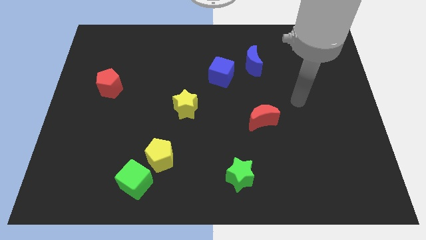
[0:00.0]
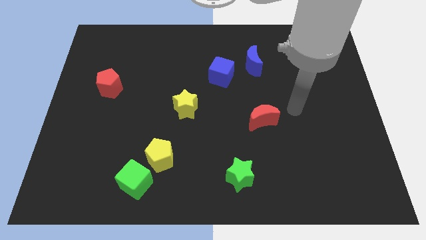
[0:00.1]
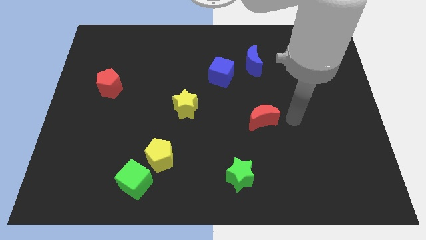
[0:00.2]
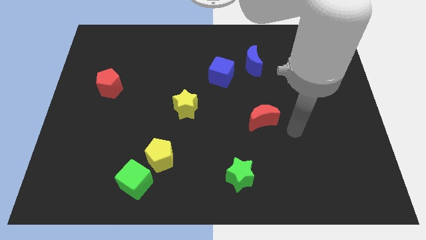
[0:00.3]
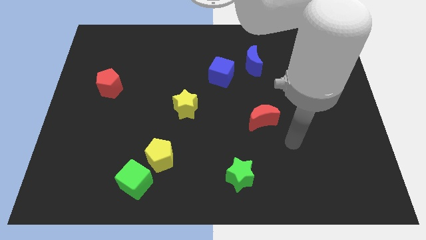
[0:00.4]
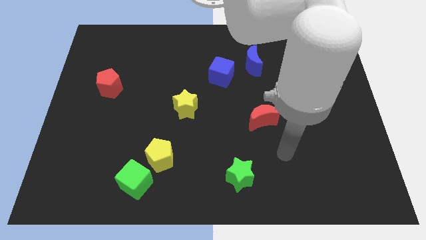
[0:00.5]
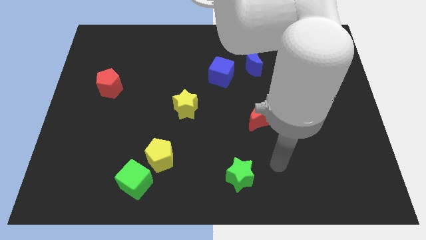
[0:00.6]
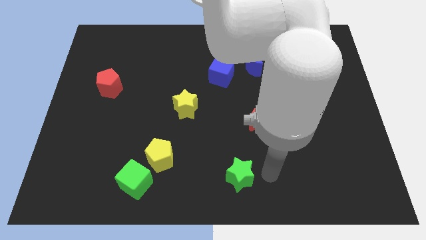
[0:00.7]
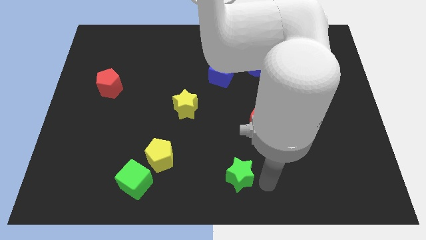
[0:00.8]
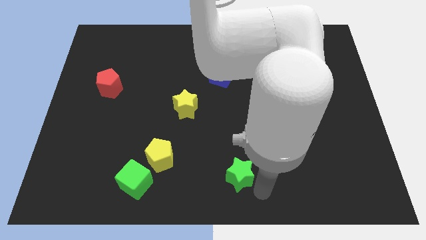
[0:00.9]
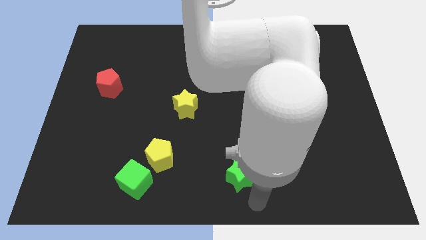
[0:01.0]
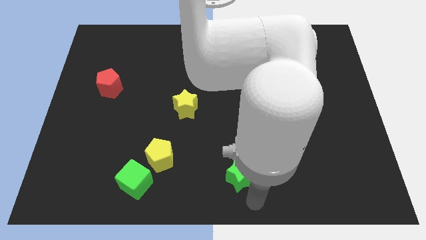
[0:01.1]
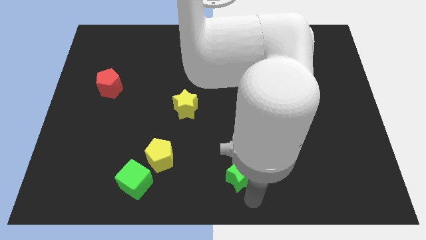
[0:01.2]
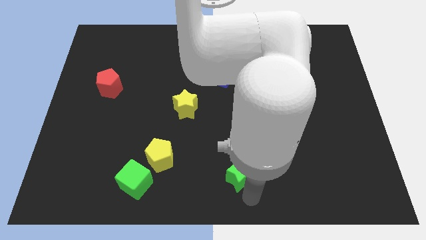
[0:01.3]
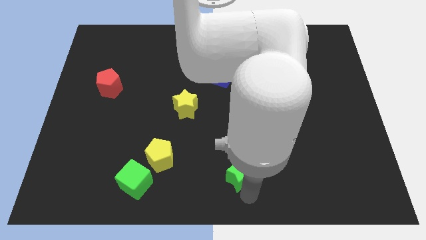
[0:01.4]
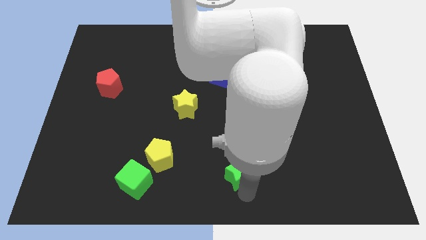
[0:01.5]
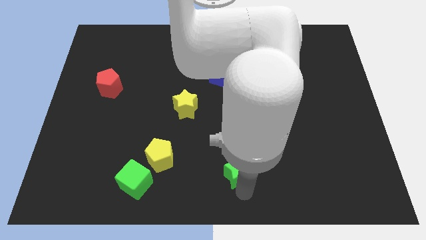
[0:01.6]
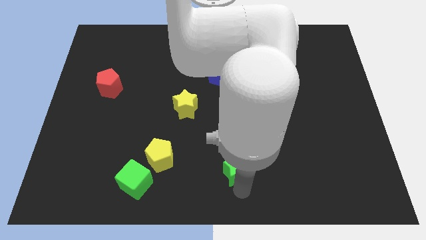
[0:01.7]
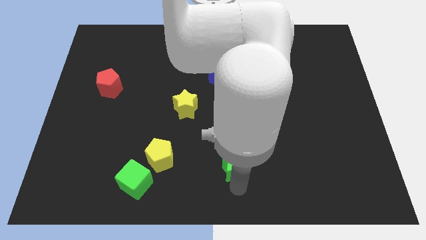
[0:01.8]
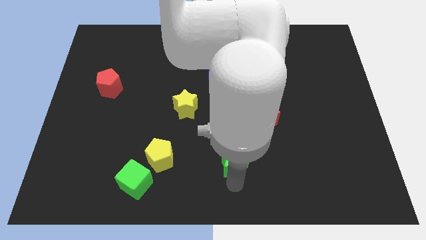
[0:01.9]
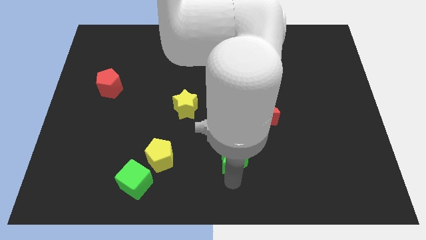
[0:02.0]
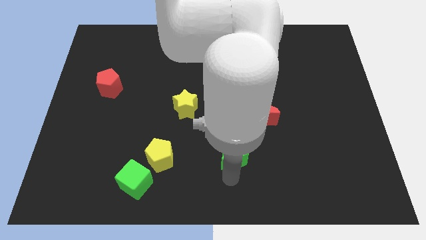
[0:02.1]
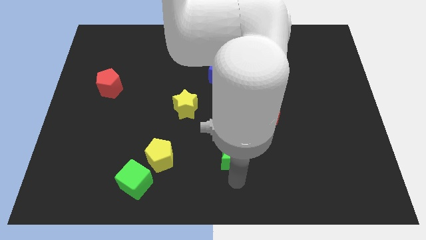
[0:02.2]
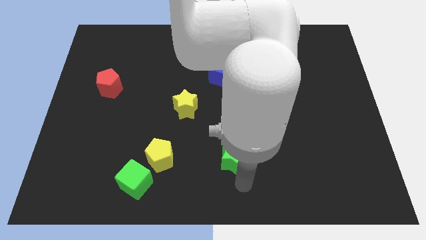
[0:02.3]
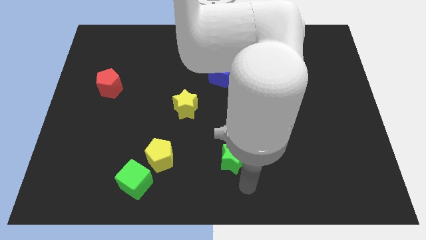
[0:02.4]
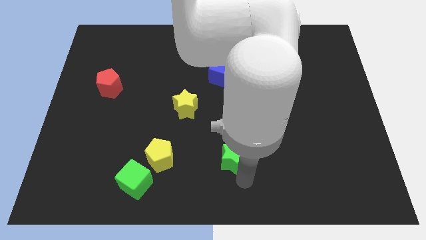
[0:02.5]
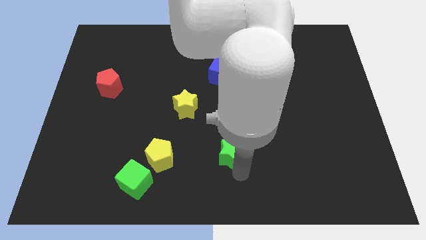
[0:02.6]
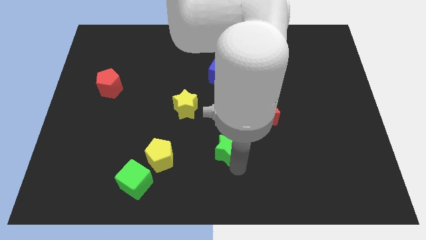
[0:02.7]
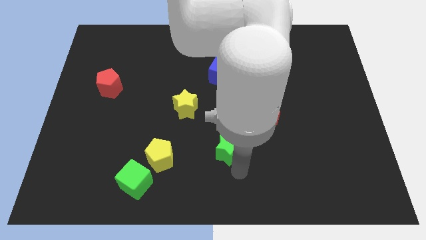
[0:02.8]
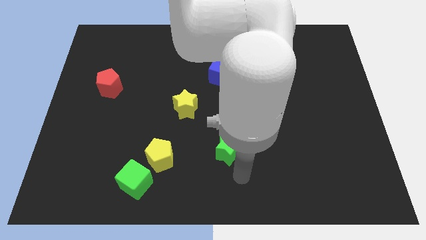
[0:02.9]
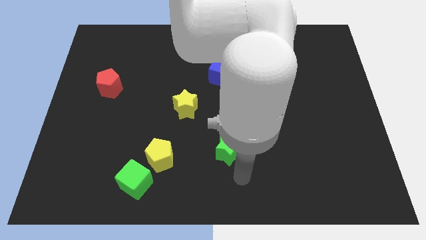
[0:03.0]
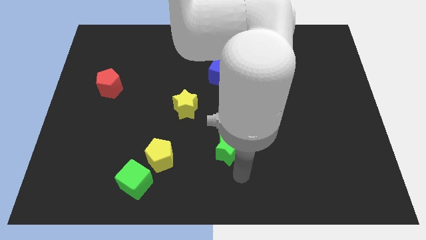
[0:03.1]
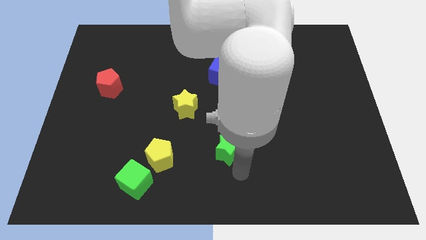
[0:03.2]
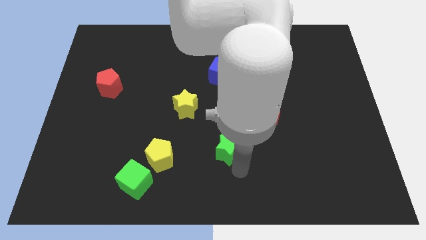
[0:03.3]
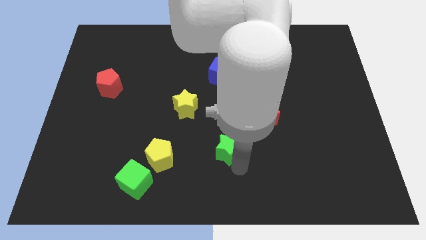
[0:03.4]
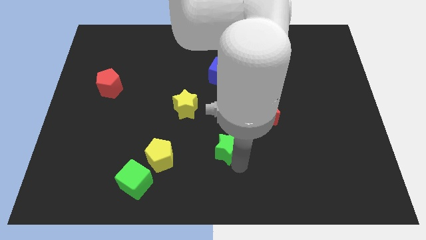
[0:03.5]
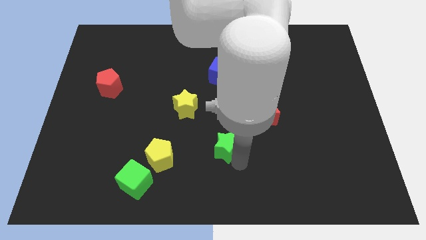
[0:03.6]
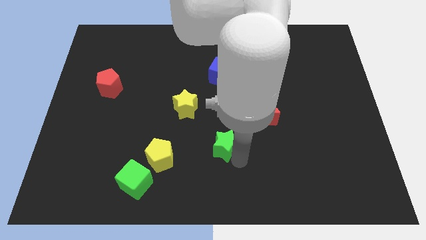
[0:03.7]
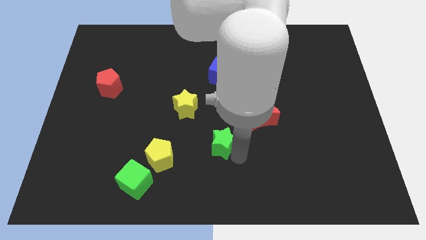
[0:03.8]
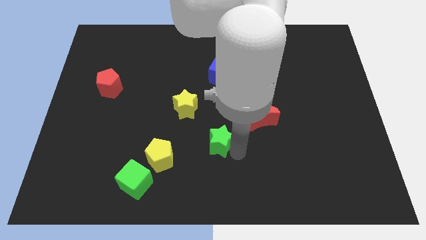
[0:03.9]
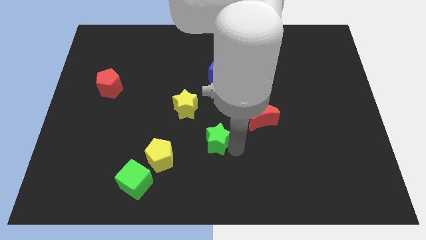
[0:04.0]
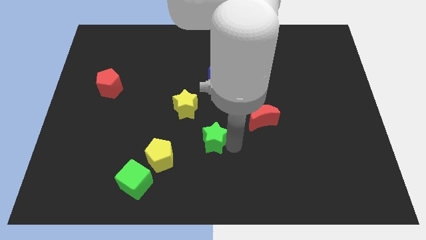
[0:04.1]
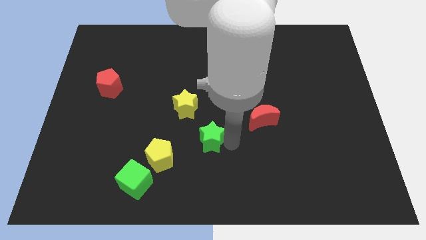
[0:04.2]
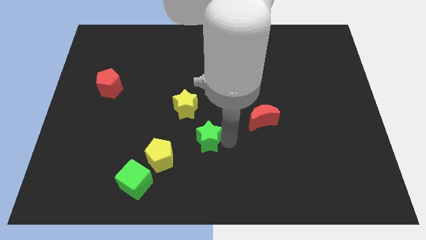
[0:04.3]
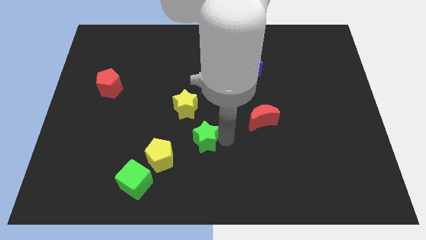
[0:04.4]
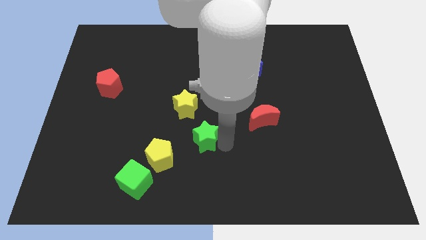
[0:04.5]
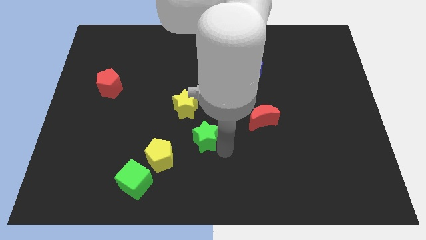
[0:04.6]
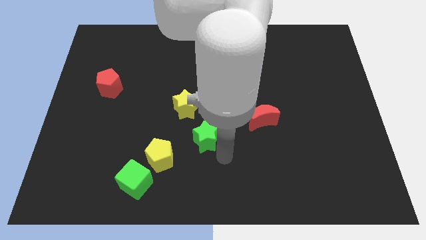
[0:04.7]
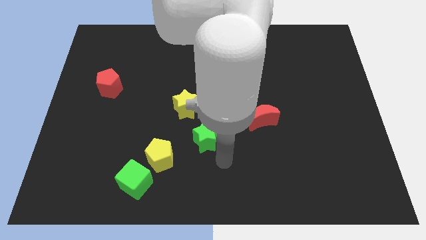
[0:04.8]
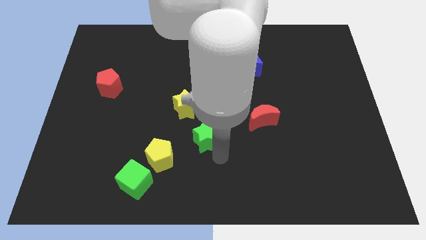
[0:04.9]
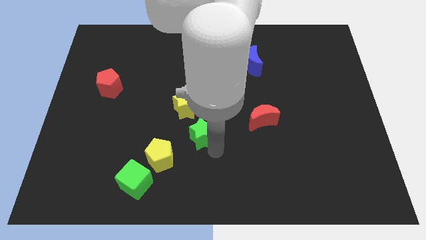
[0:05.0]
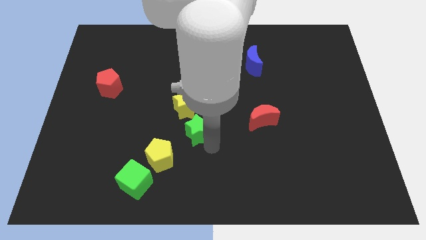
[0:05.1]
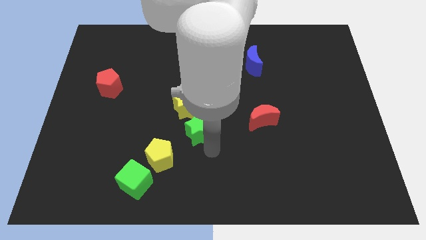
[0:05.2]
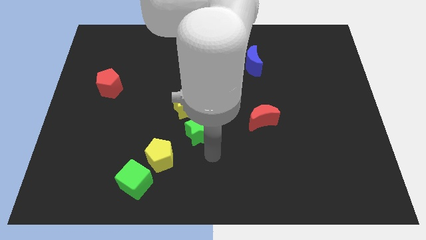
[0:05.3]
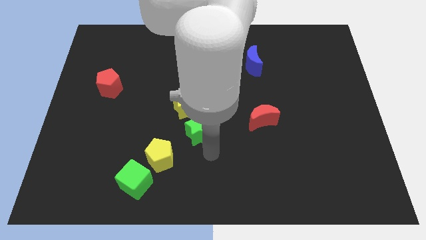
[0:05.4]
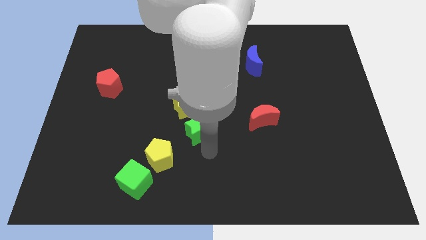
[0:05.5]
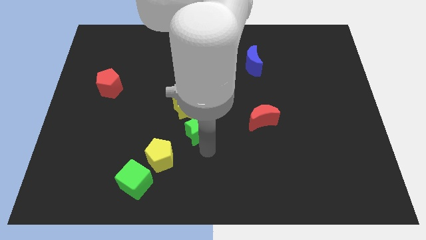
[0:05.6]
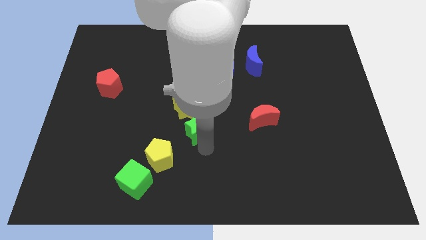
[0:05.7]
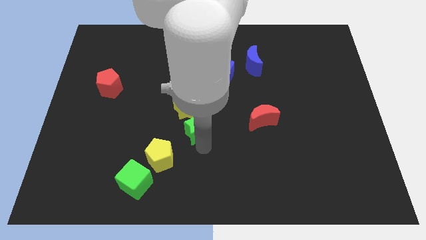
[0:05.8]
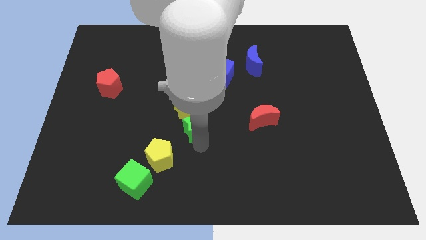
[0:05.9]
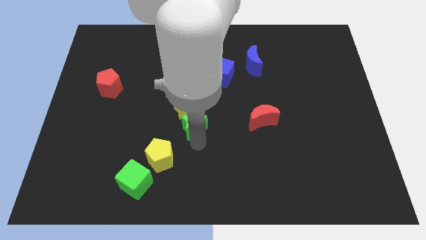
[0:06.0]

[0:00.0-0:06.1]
slide the green star close to the yellow star

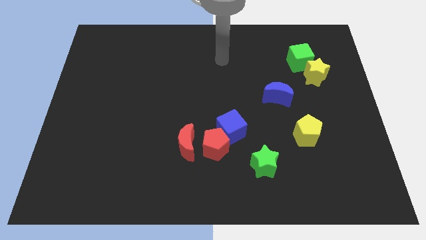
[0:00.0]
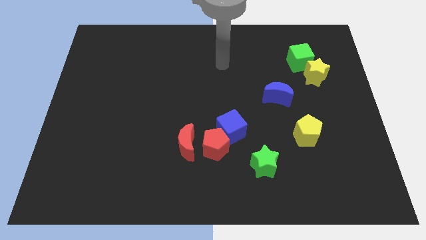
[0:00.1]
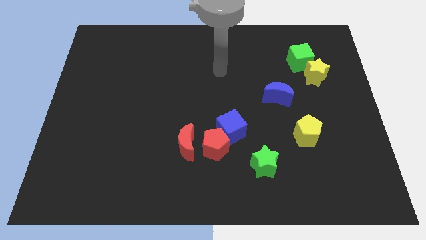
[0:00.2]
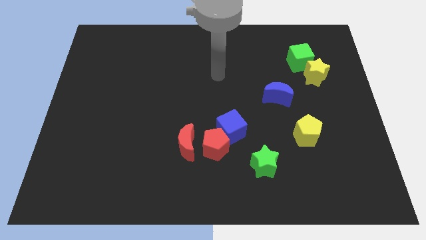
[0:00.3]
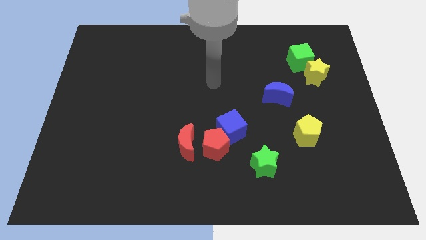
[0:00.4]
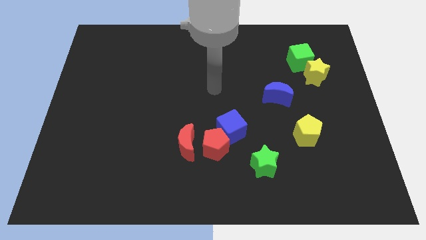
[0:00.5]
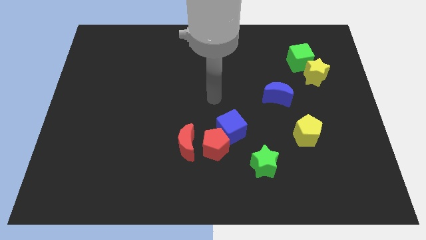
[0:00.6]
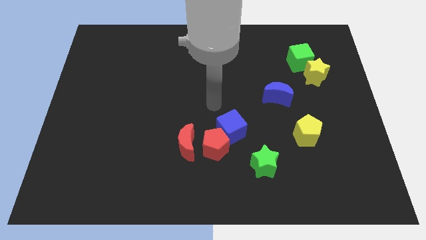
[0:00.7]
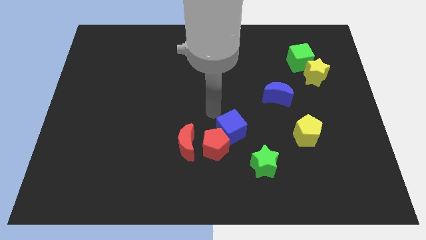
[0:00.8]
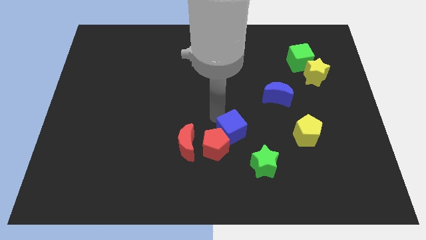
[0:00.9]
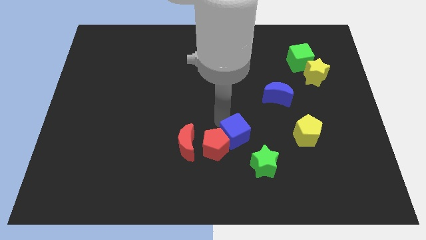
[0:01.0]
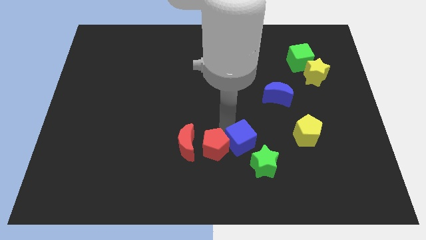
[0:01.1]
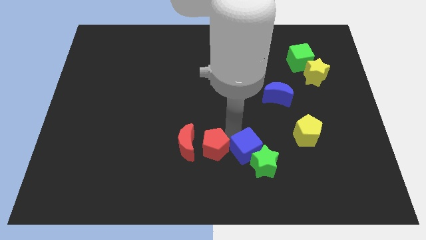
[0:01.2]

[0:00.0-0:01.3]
put the blue cube next to the green star

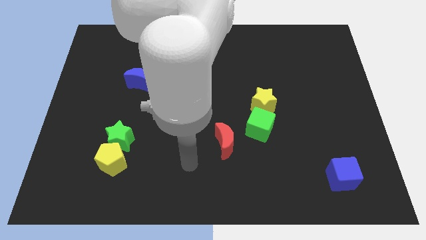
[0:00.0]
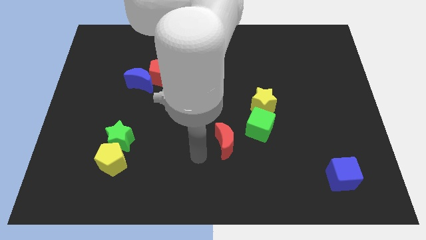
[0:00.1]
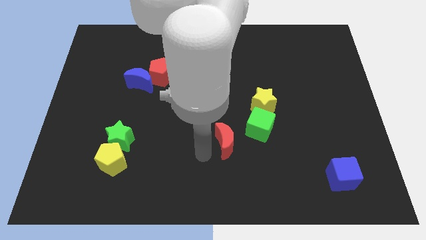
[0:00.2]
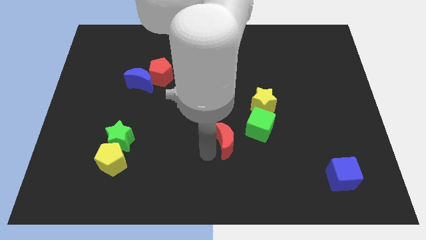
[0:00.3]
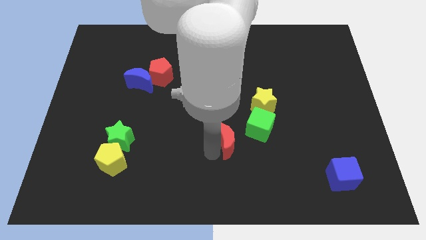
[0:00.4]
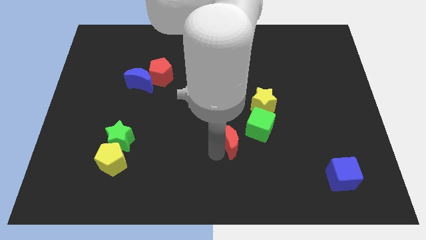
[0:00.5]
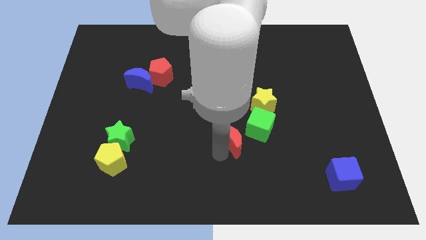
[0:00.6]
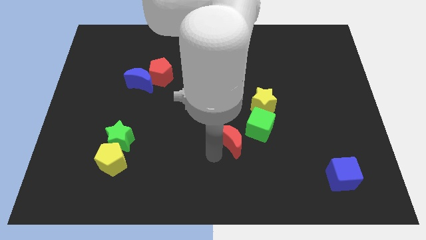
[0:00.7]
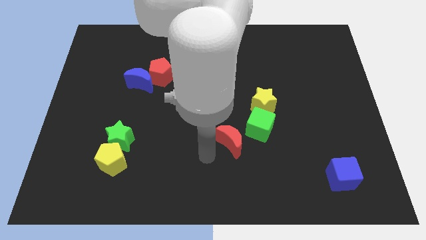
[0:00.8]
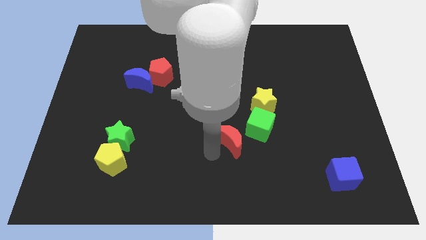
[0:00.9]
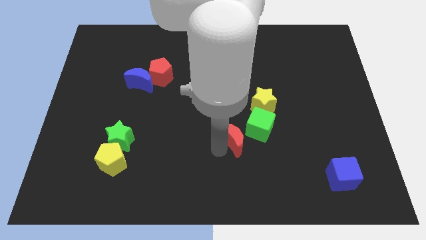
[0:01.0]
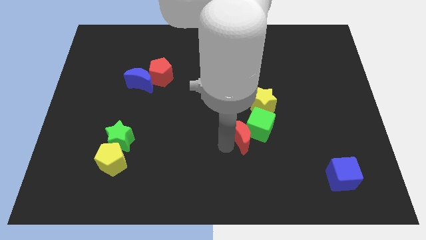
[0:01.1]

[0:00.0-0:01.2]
slide the red moon towards the green cube
